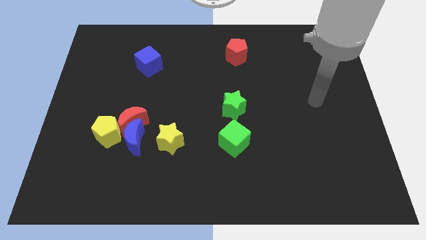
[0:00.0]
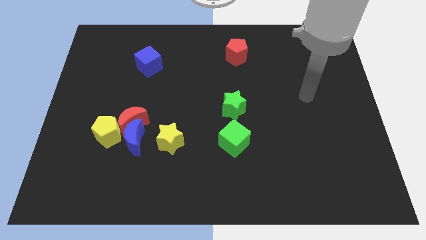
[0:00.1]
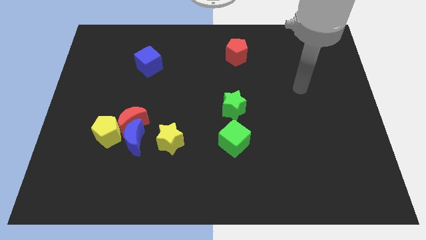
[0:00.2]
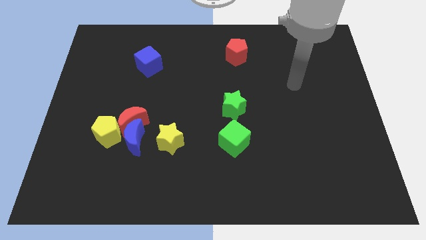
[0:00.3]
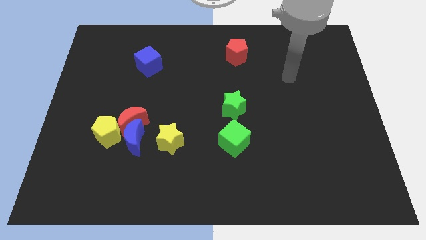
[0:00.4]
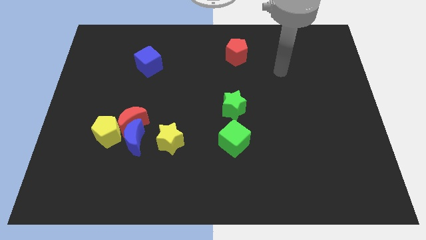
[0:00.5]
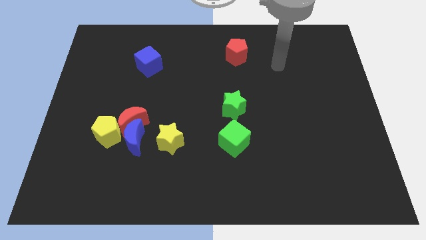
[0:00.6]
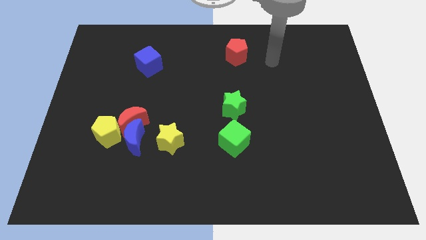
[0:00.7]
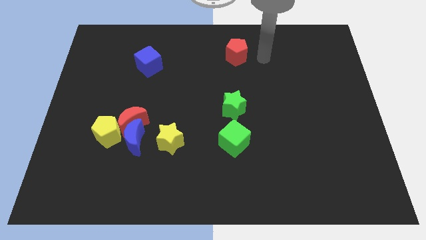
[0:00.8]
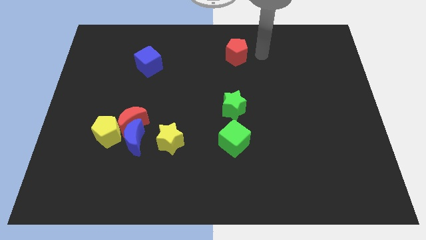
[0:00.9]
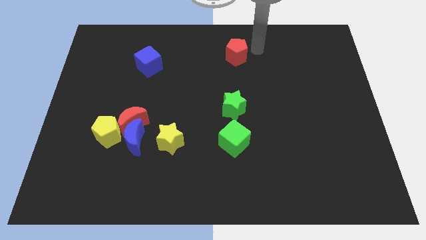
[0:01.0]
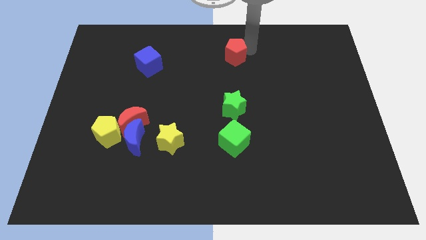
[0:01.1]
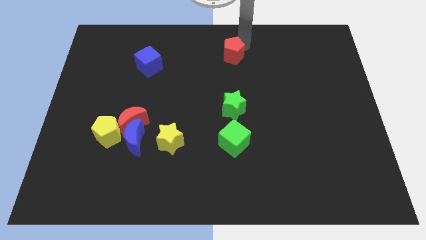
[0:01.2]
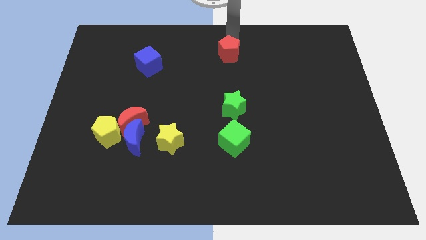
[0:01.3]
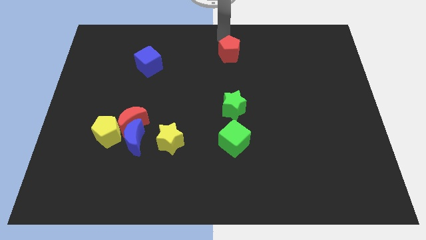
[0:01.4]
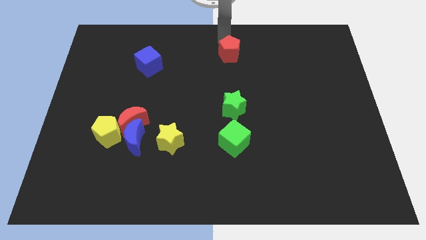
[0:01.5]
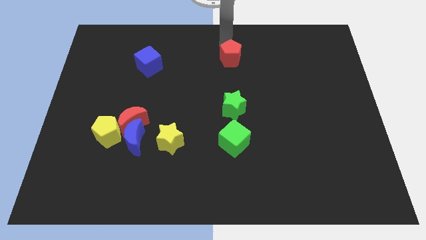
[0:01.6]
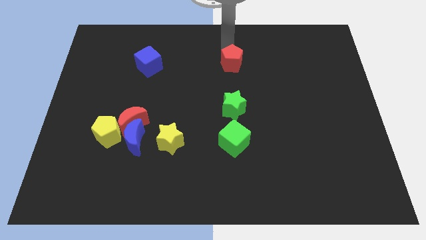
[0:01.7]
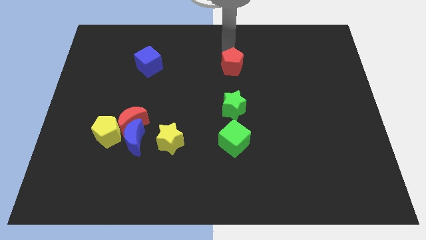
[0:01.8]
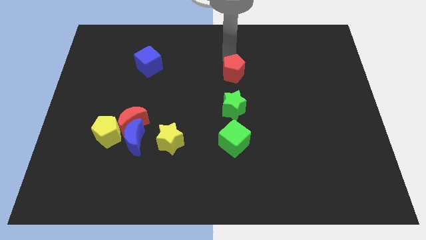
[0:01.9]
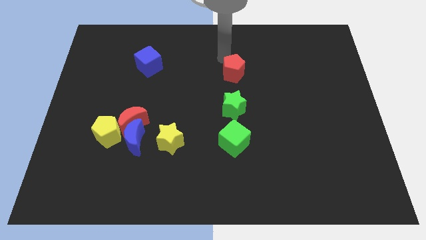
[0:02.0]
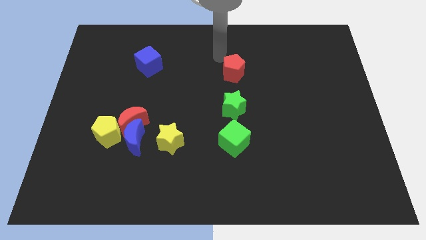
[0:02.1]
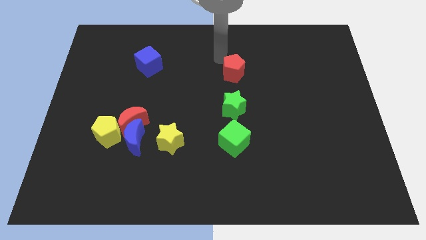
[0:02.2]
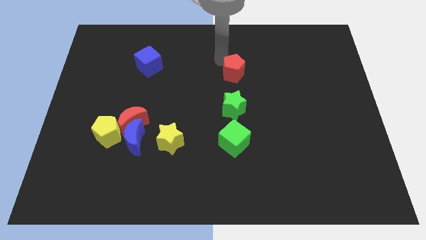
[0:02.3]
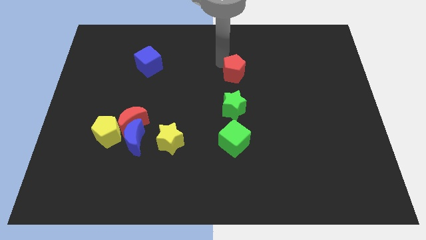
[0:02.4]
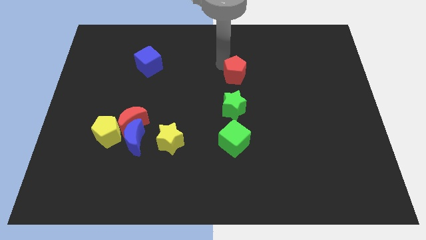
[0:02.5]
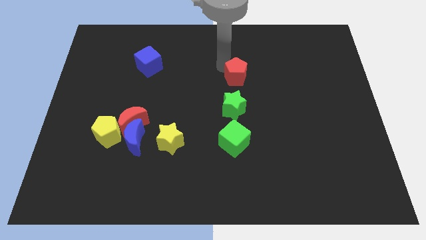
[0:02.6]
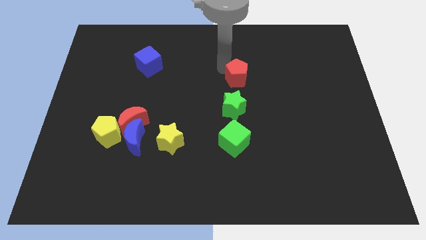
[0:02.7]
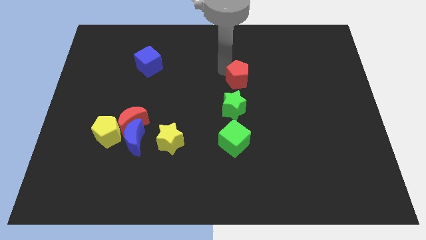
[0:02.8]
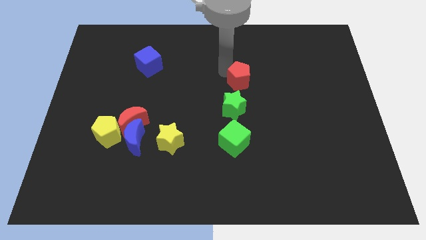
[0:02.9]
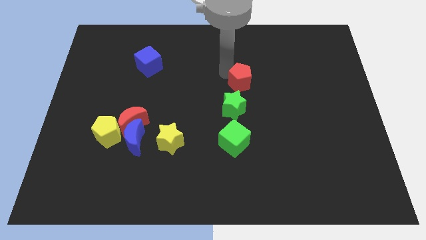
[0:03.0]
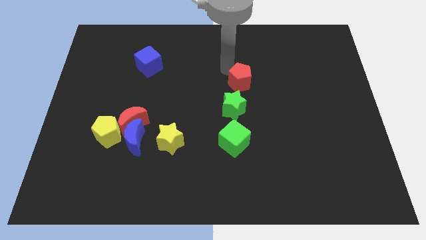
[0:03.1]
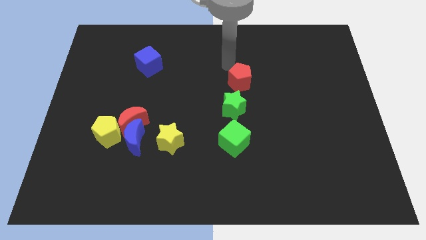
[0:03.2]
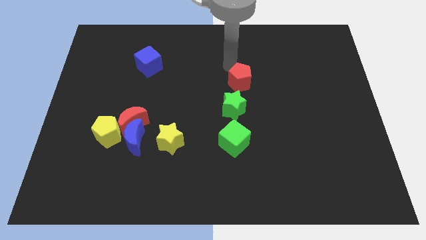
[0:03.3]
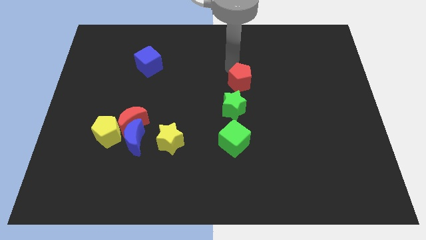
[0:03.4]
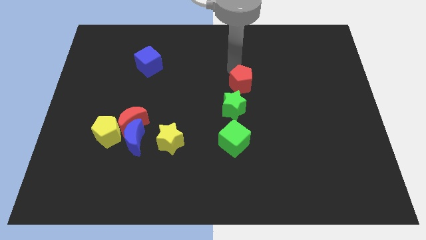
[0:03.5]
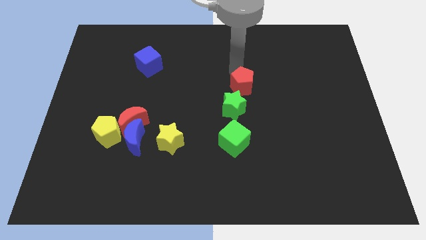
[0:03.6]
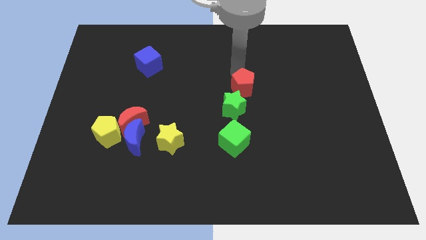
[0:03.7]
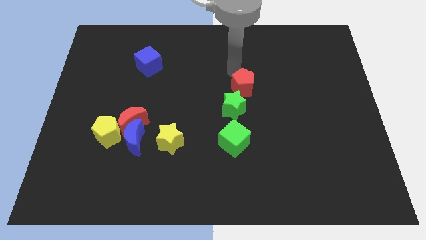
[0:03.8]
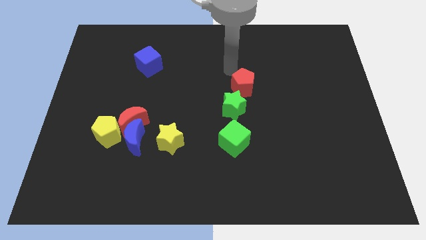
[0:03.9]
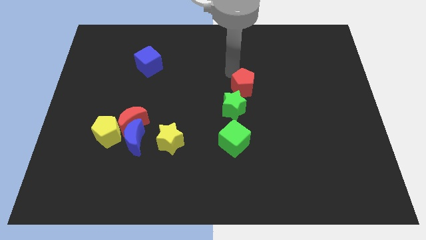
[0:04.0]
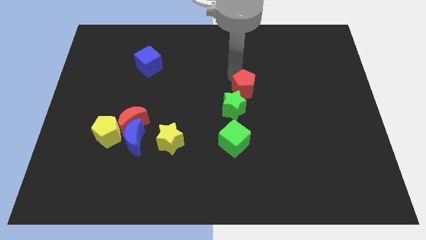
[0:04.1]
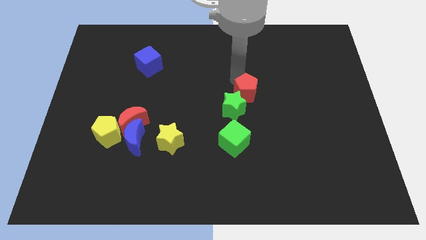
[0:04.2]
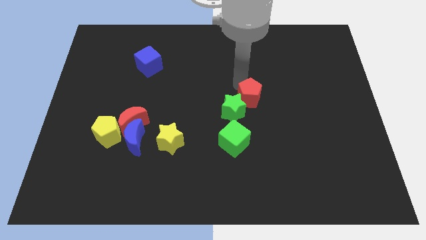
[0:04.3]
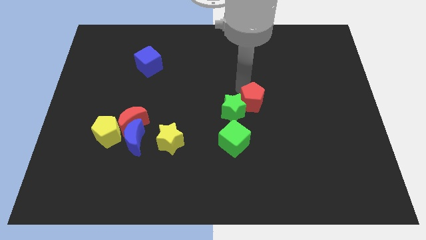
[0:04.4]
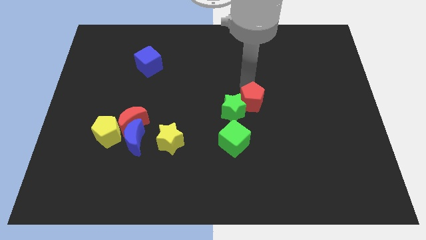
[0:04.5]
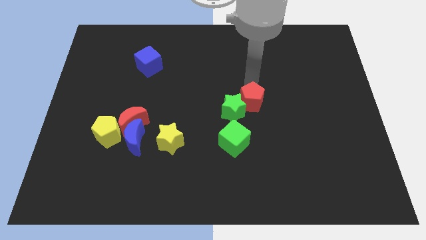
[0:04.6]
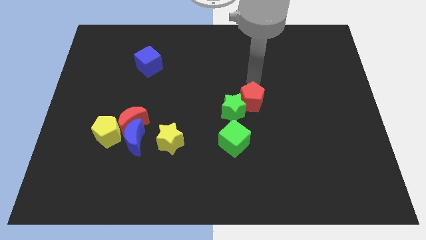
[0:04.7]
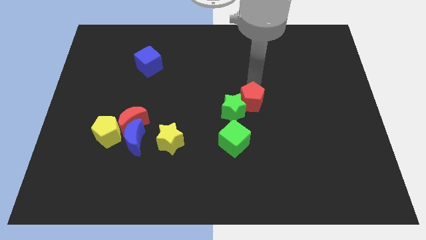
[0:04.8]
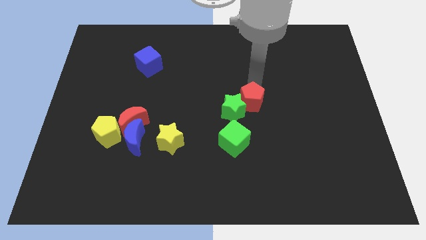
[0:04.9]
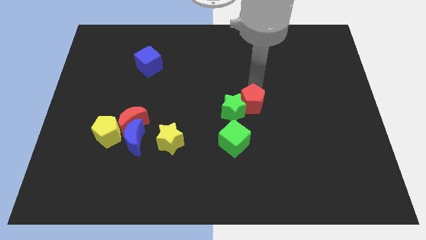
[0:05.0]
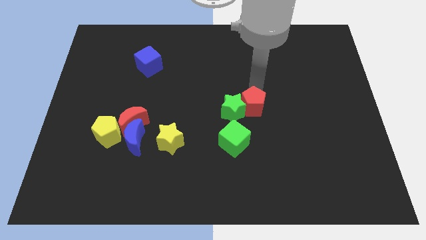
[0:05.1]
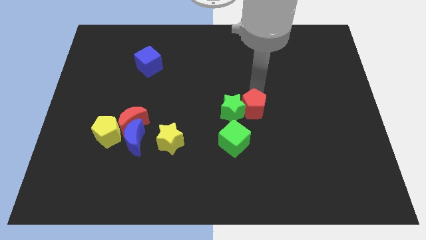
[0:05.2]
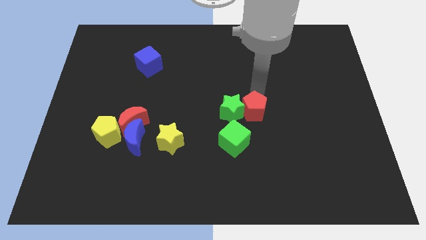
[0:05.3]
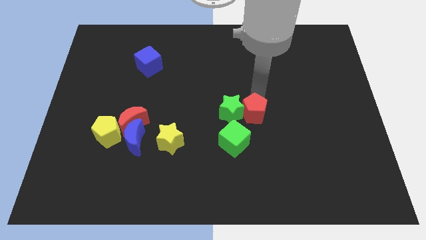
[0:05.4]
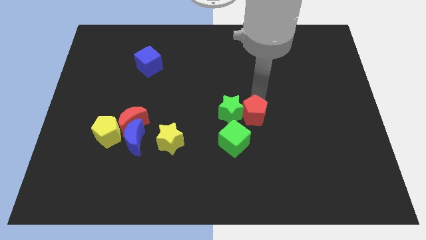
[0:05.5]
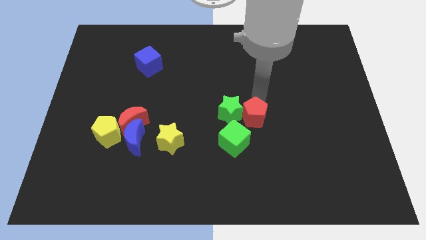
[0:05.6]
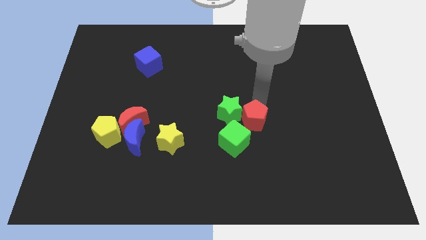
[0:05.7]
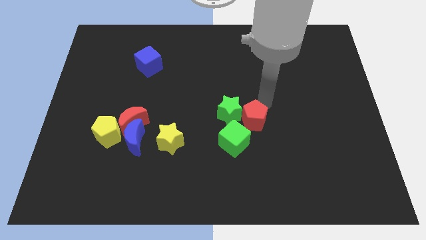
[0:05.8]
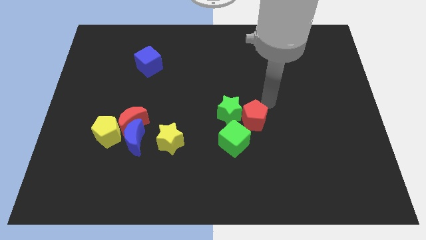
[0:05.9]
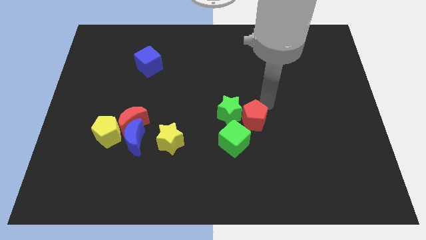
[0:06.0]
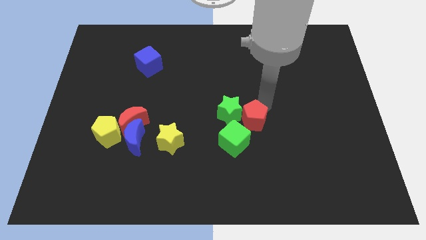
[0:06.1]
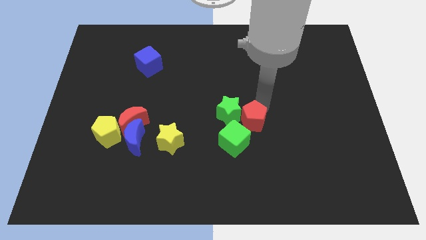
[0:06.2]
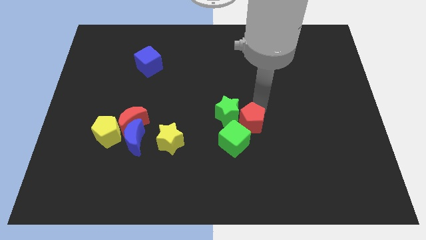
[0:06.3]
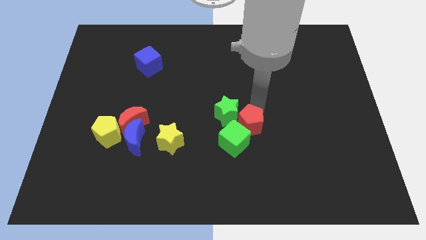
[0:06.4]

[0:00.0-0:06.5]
slide the red pentagon close to the green cube
